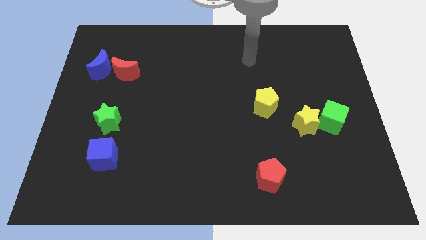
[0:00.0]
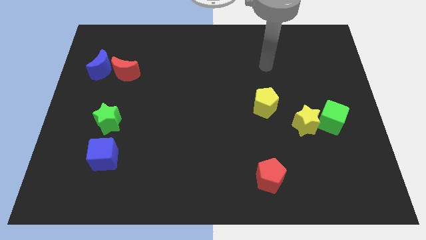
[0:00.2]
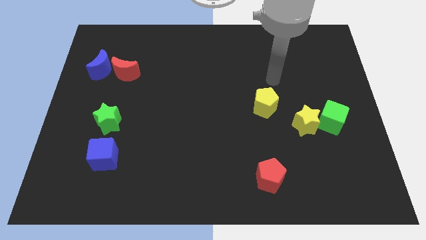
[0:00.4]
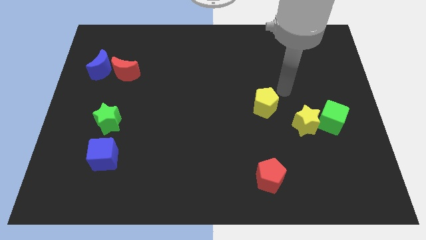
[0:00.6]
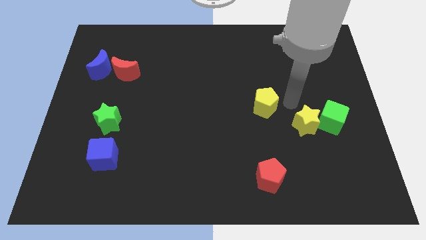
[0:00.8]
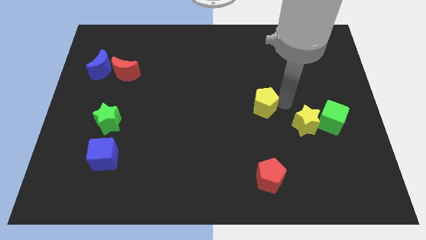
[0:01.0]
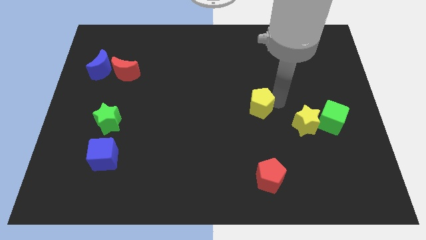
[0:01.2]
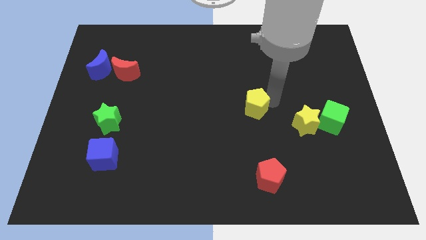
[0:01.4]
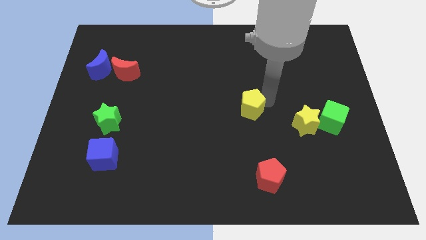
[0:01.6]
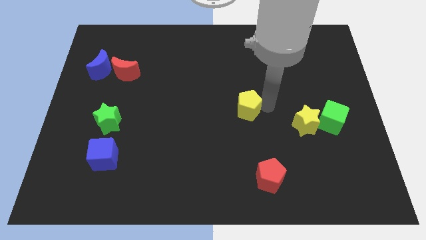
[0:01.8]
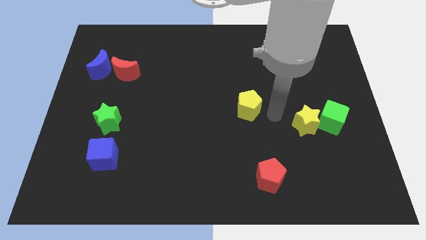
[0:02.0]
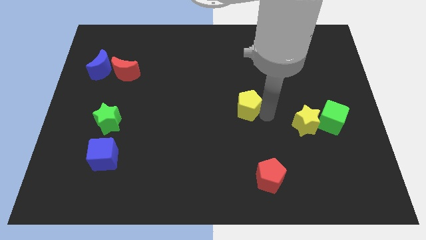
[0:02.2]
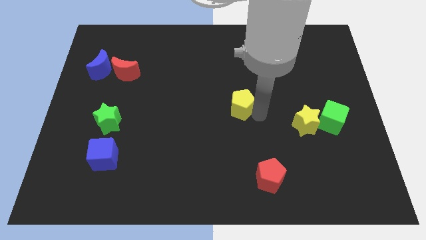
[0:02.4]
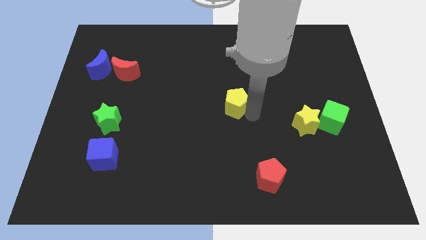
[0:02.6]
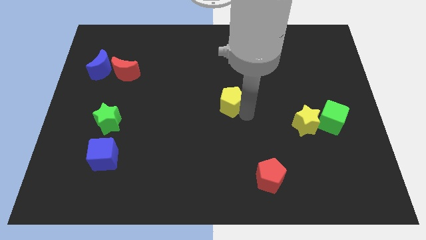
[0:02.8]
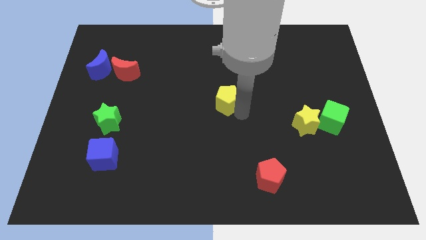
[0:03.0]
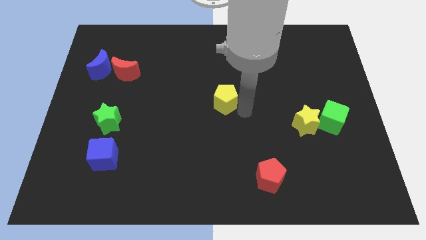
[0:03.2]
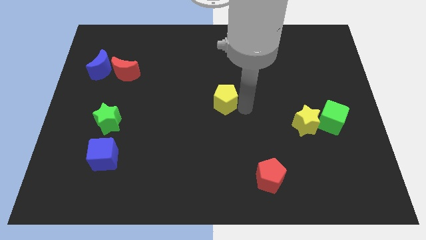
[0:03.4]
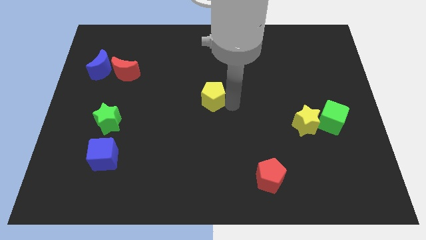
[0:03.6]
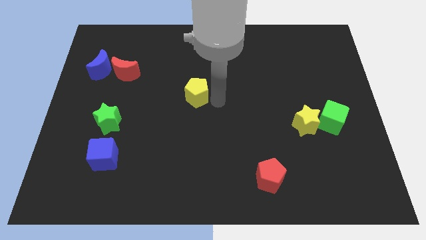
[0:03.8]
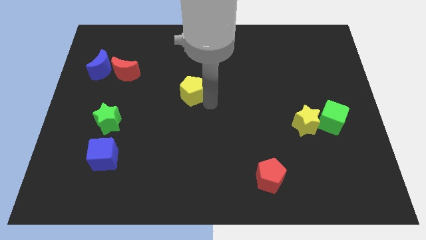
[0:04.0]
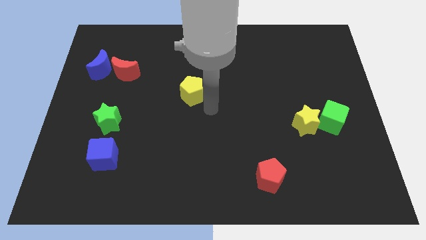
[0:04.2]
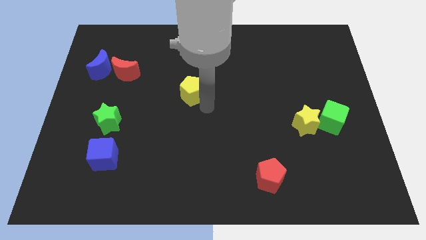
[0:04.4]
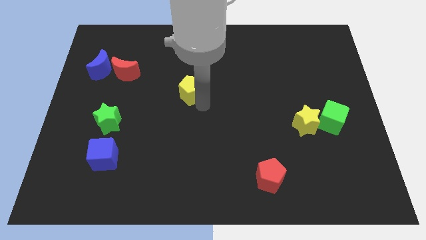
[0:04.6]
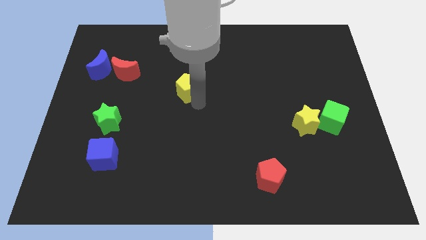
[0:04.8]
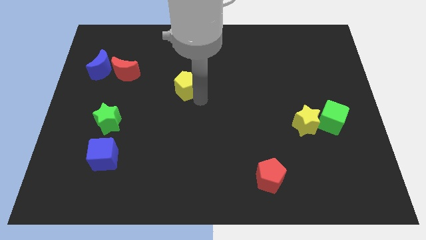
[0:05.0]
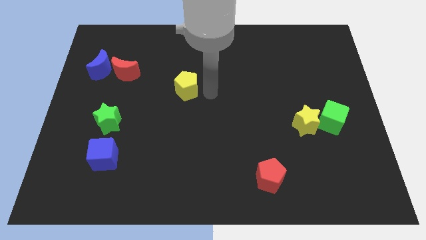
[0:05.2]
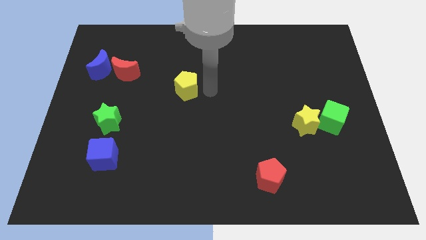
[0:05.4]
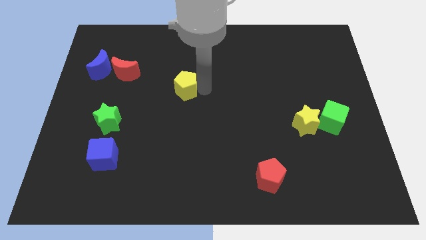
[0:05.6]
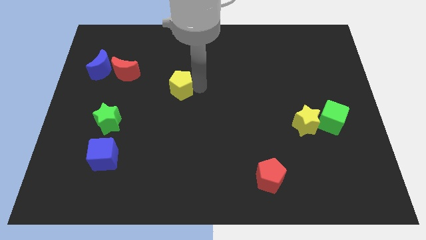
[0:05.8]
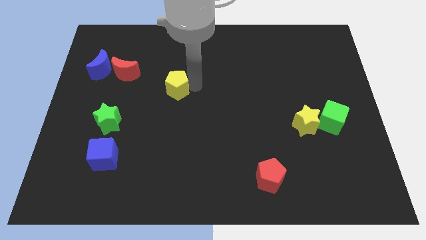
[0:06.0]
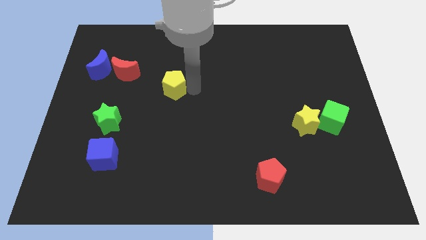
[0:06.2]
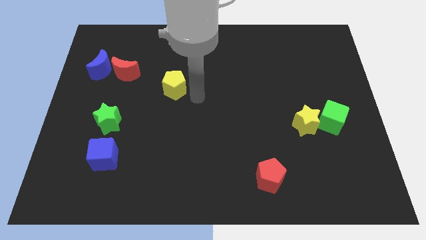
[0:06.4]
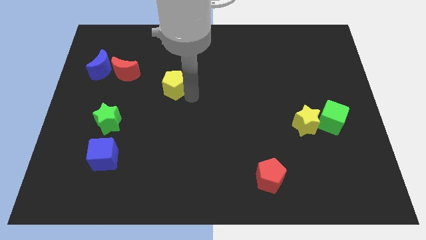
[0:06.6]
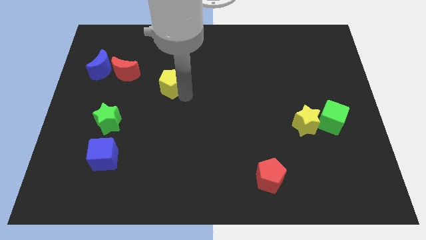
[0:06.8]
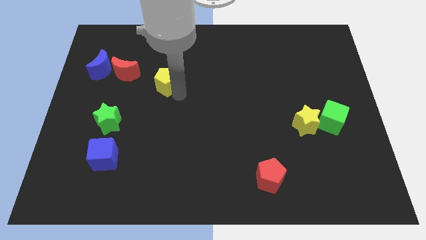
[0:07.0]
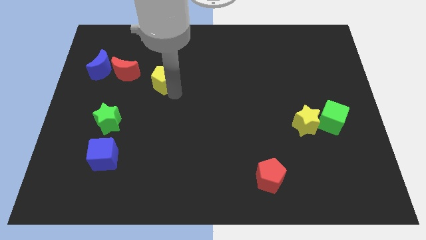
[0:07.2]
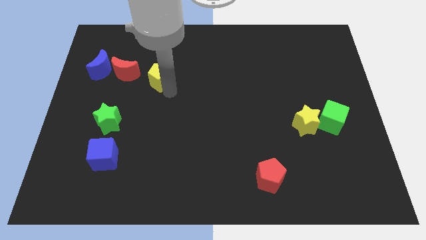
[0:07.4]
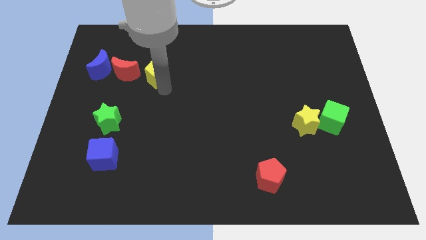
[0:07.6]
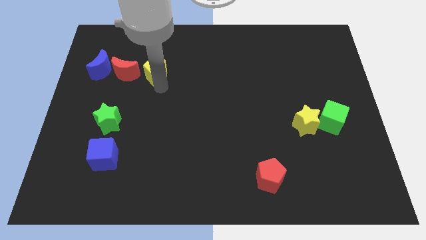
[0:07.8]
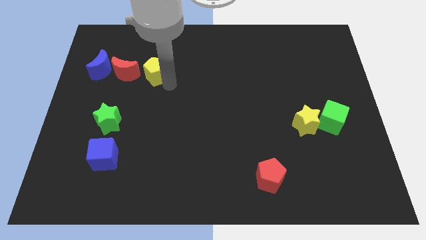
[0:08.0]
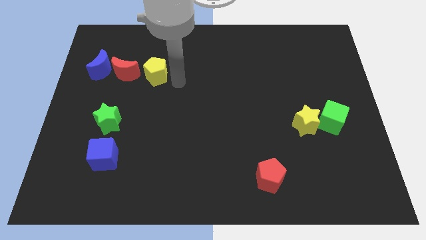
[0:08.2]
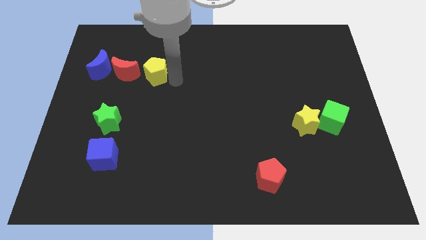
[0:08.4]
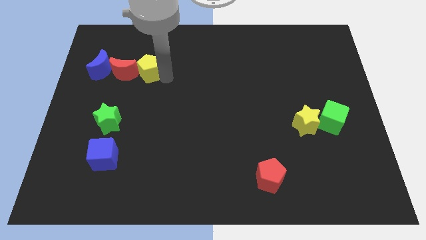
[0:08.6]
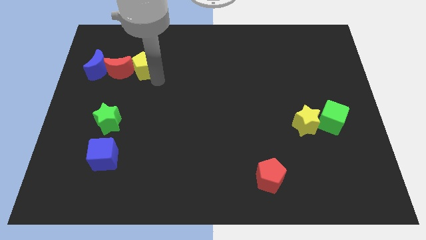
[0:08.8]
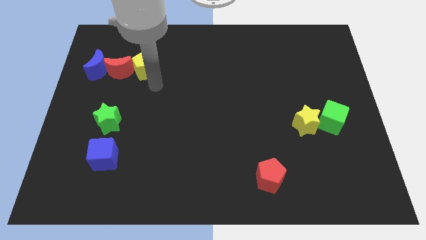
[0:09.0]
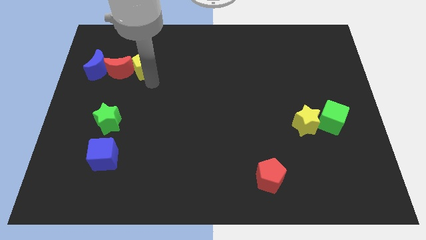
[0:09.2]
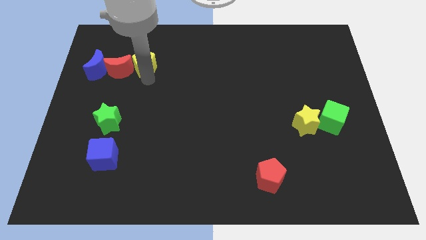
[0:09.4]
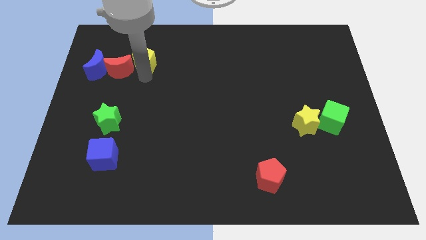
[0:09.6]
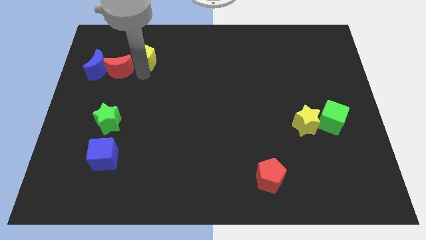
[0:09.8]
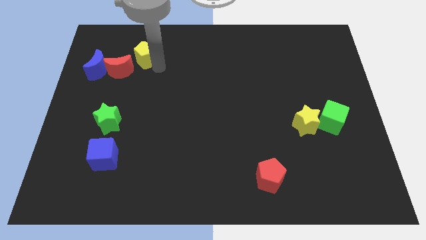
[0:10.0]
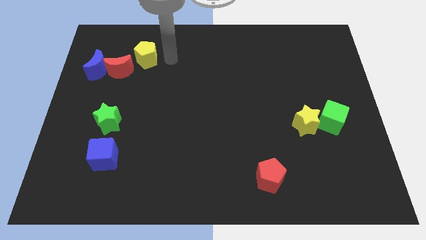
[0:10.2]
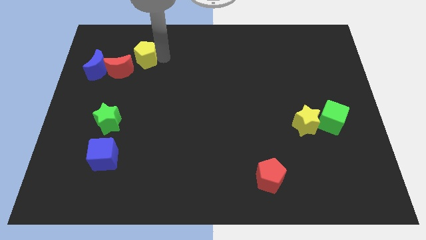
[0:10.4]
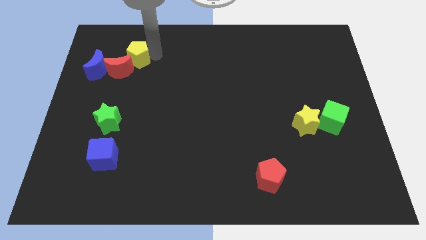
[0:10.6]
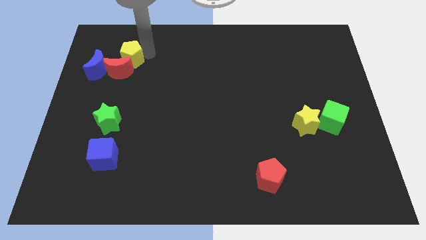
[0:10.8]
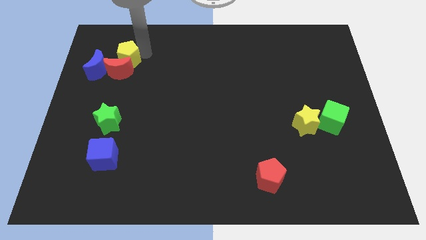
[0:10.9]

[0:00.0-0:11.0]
move the yellow pentagon to the top left of the red moon

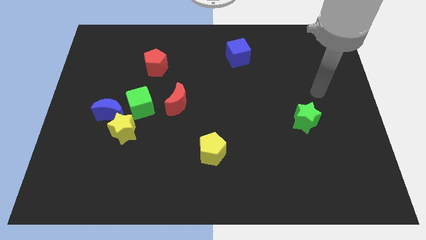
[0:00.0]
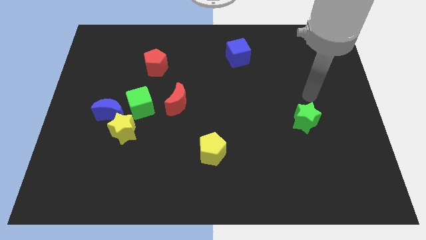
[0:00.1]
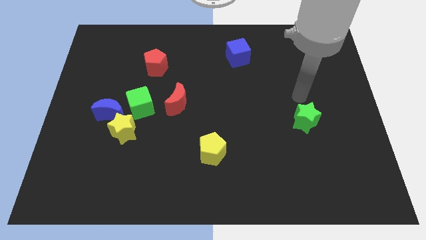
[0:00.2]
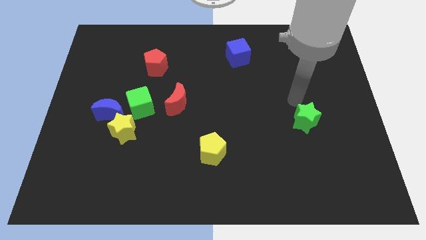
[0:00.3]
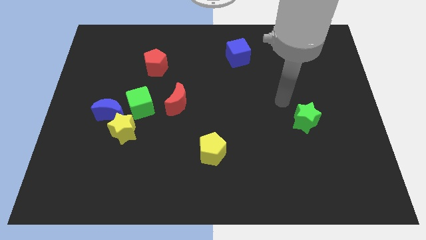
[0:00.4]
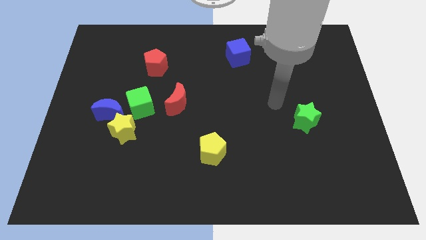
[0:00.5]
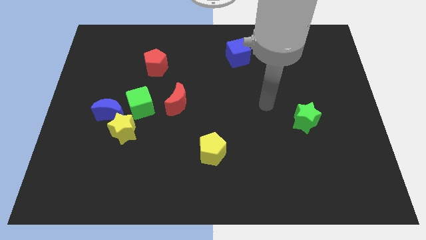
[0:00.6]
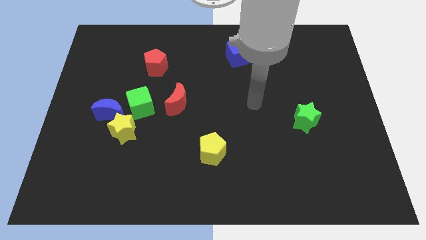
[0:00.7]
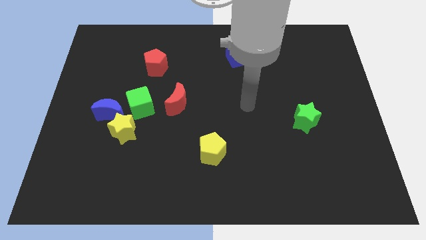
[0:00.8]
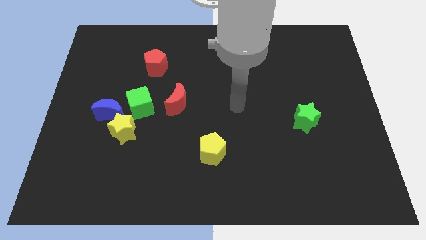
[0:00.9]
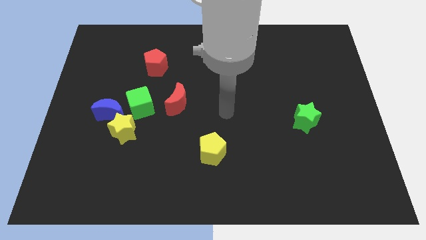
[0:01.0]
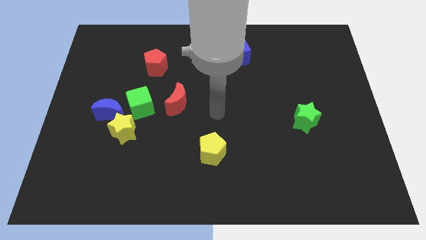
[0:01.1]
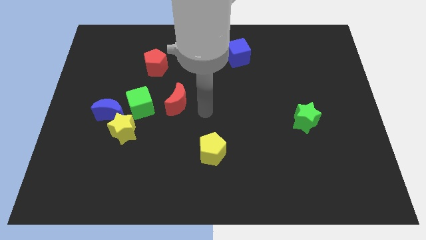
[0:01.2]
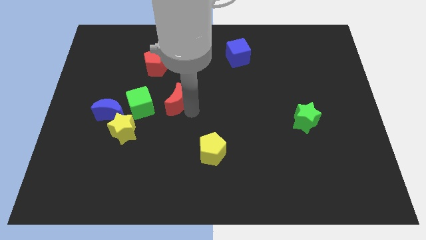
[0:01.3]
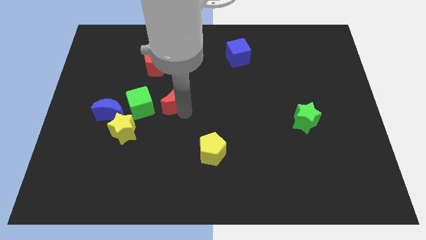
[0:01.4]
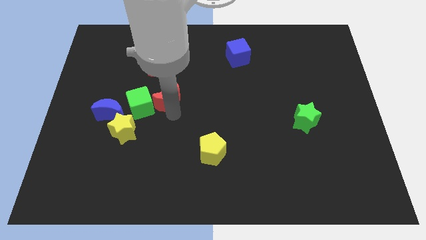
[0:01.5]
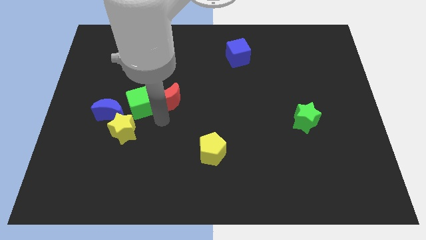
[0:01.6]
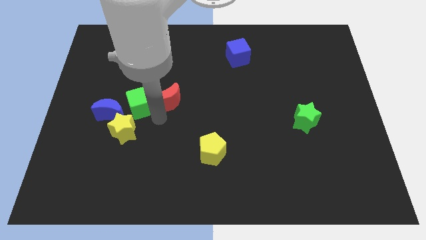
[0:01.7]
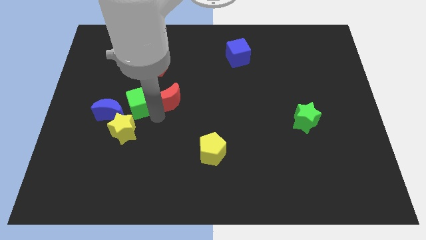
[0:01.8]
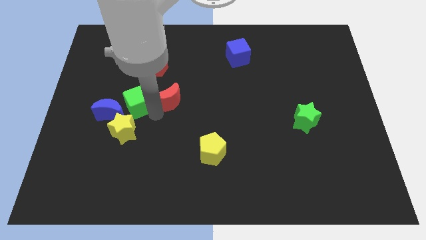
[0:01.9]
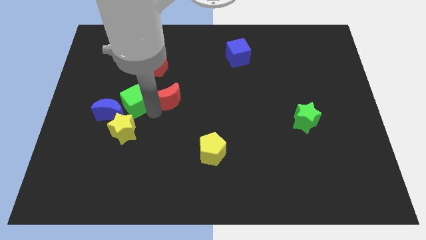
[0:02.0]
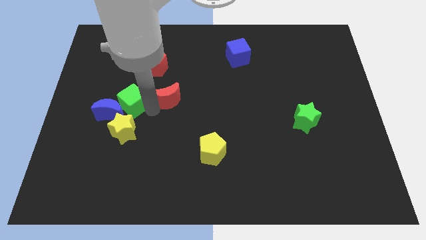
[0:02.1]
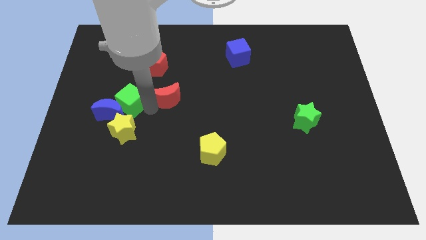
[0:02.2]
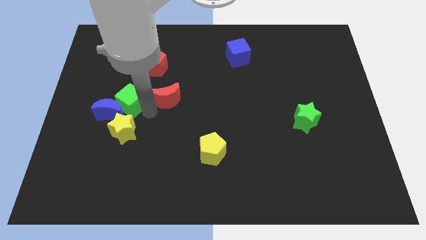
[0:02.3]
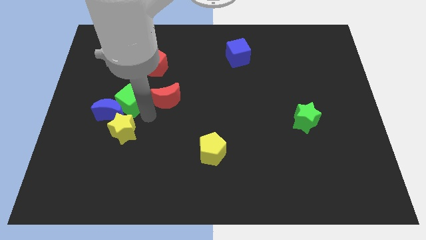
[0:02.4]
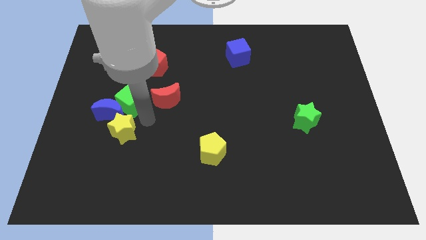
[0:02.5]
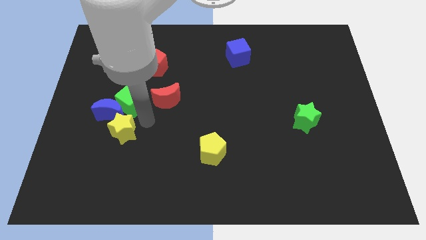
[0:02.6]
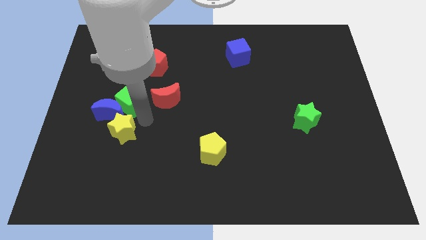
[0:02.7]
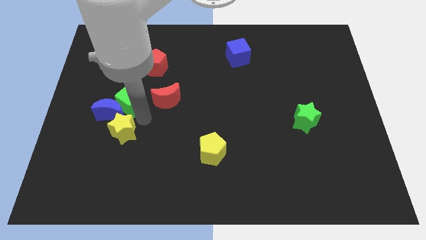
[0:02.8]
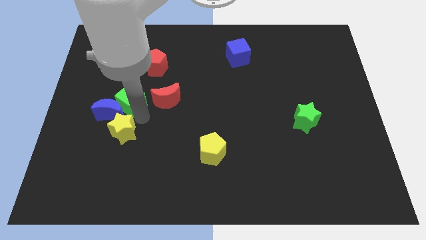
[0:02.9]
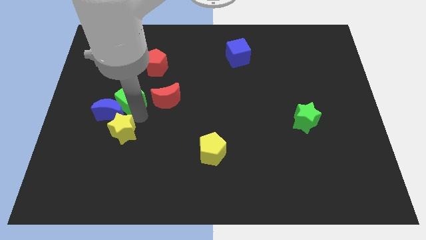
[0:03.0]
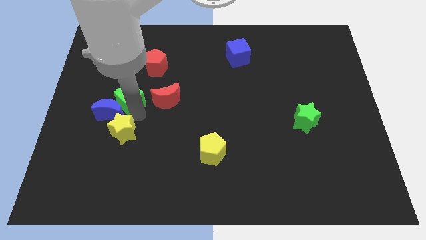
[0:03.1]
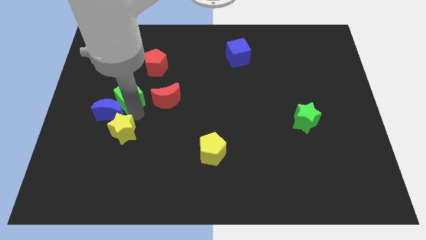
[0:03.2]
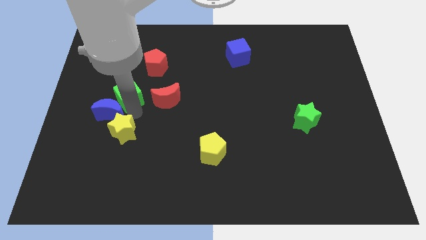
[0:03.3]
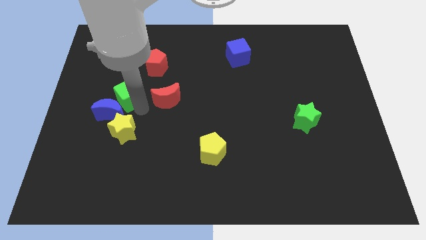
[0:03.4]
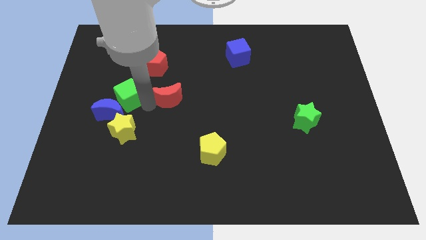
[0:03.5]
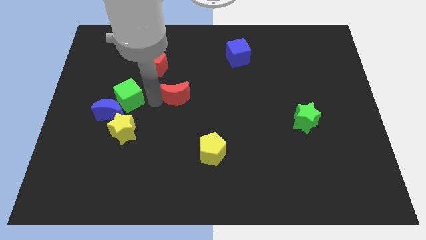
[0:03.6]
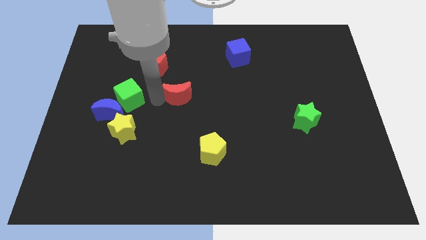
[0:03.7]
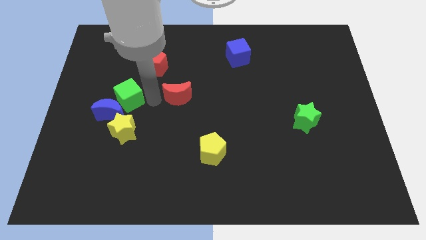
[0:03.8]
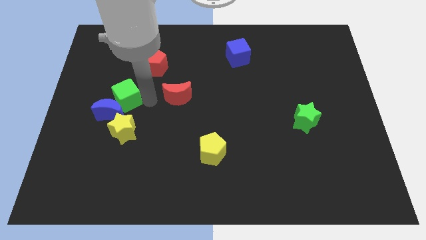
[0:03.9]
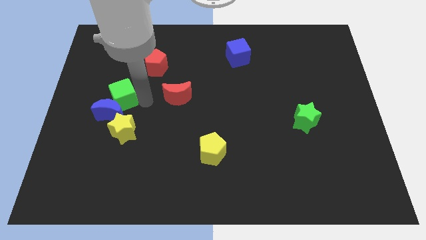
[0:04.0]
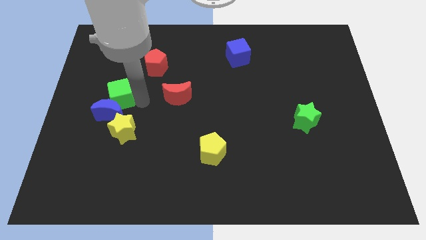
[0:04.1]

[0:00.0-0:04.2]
push the green cube to the top left side of the blue moon
